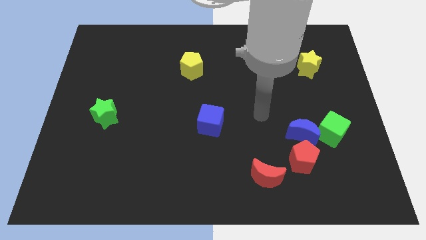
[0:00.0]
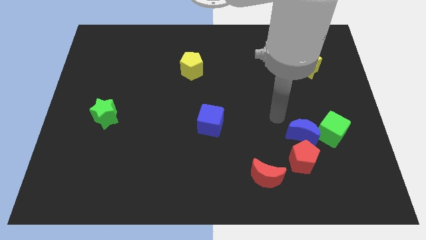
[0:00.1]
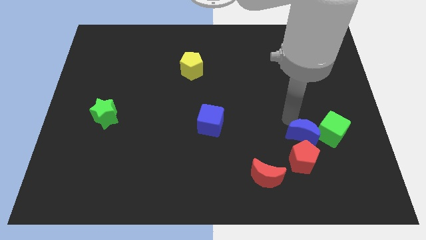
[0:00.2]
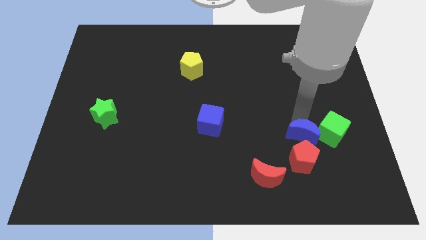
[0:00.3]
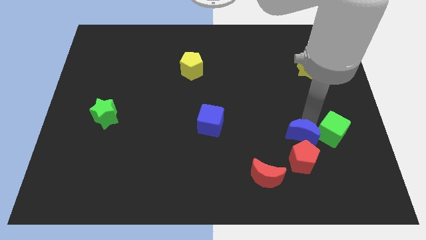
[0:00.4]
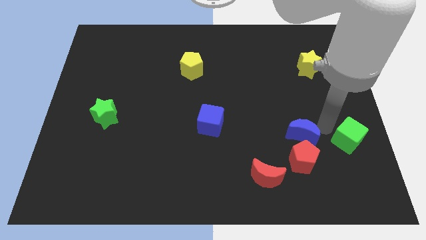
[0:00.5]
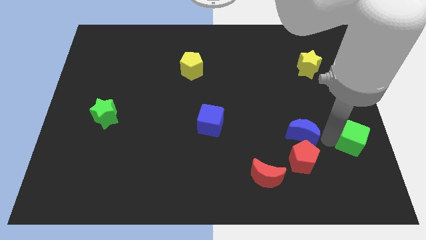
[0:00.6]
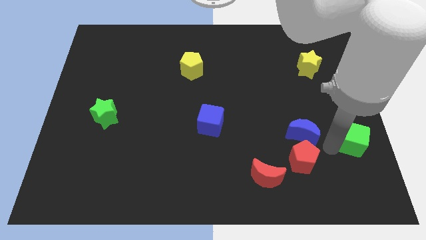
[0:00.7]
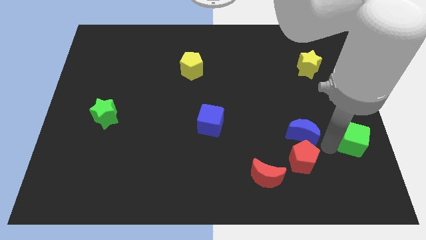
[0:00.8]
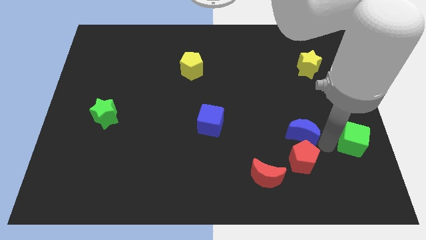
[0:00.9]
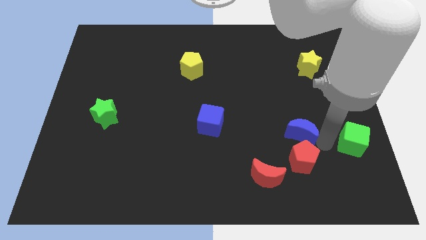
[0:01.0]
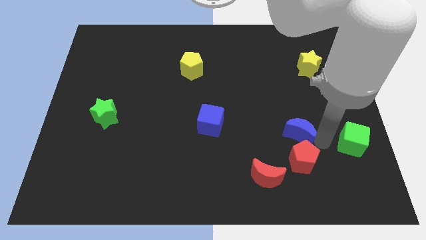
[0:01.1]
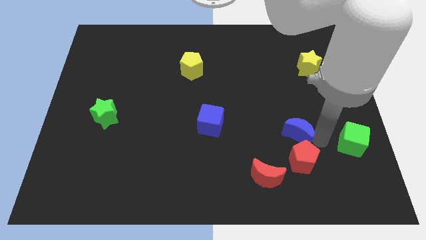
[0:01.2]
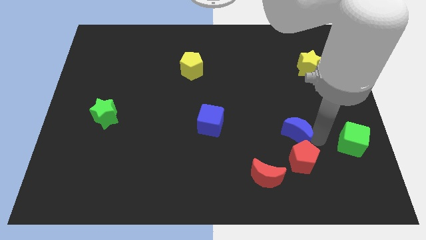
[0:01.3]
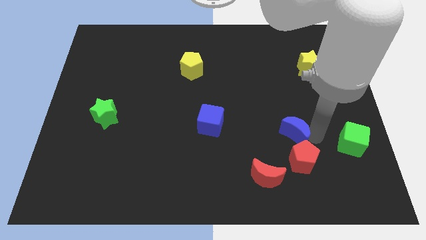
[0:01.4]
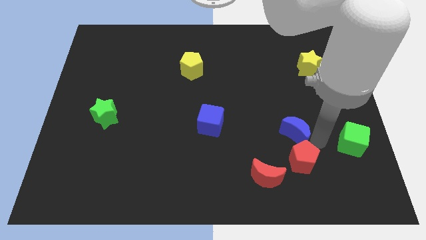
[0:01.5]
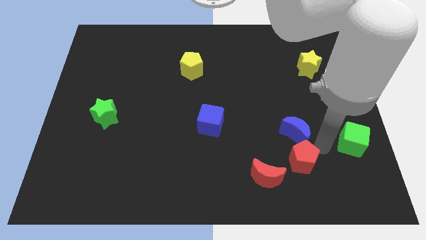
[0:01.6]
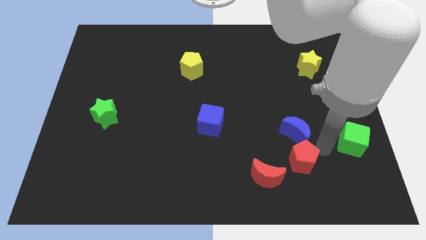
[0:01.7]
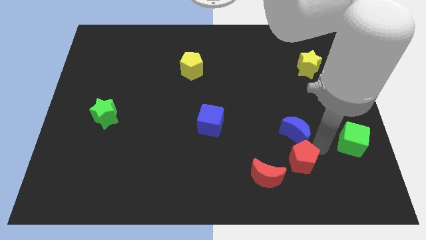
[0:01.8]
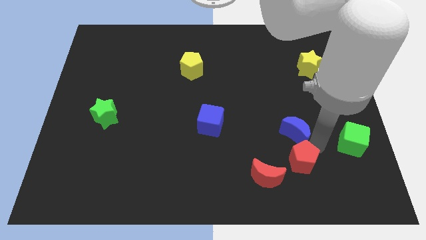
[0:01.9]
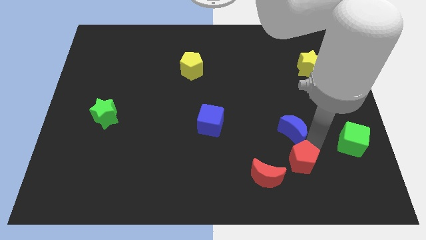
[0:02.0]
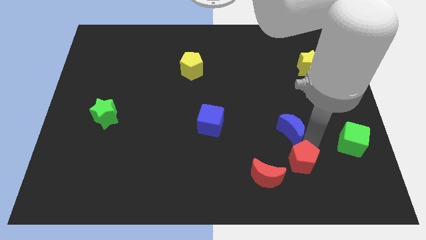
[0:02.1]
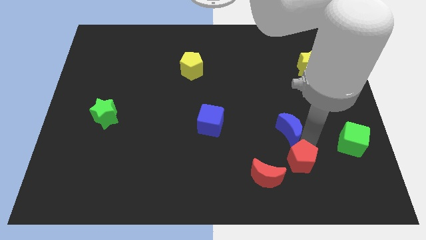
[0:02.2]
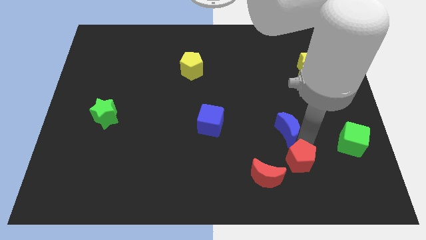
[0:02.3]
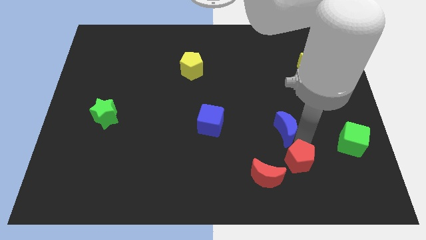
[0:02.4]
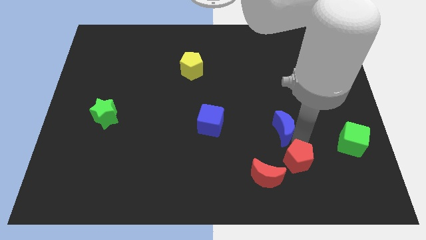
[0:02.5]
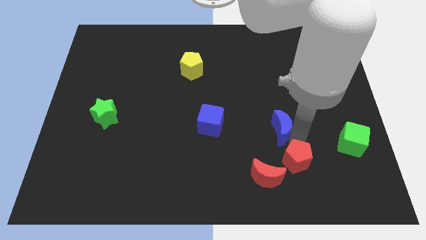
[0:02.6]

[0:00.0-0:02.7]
move the blue moon away from the green cube and red pentagon

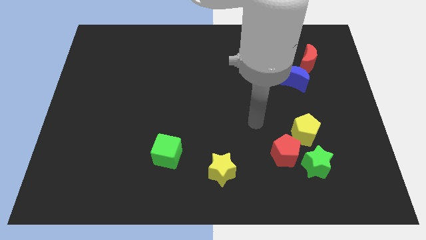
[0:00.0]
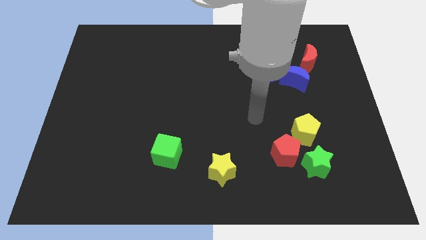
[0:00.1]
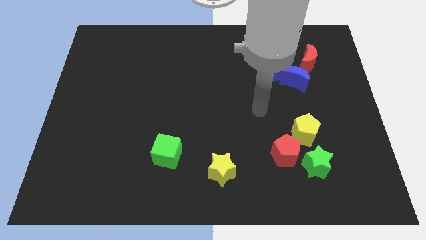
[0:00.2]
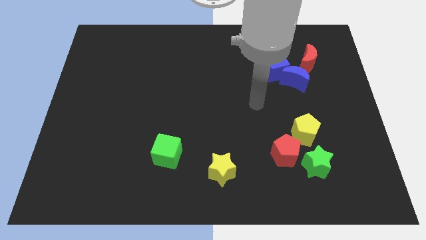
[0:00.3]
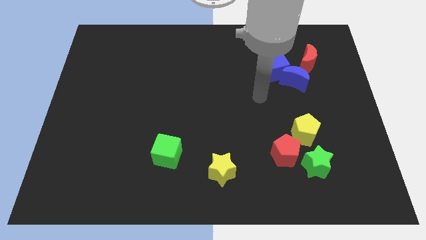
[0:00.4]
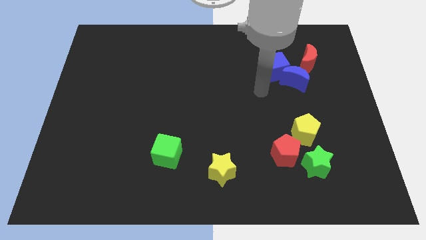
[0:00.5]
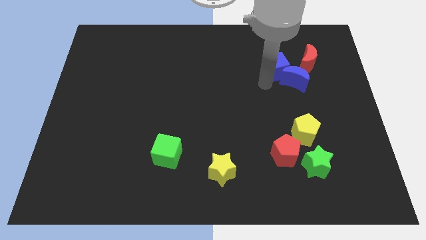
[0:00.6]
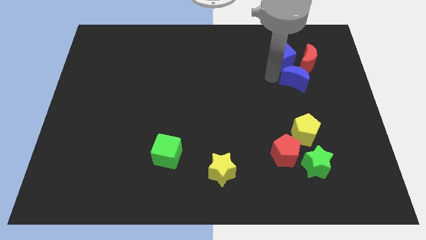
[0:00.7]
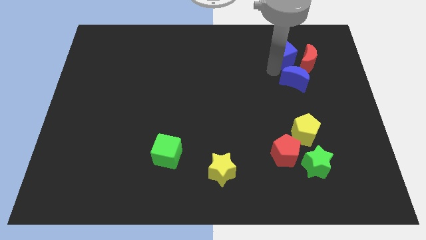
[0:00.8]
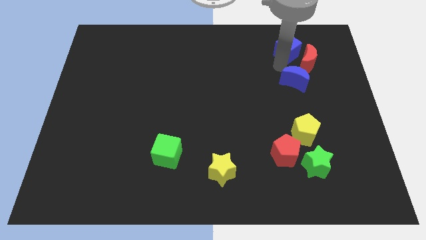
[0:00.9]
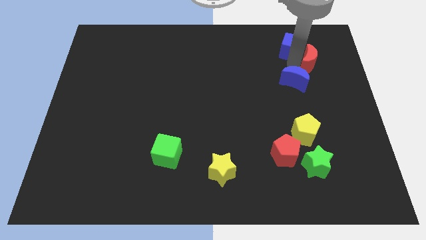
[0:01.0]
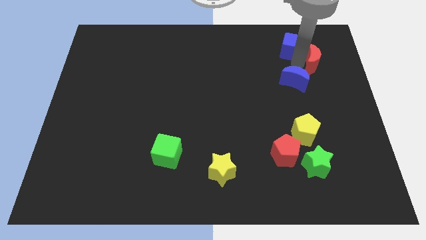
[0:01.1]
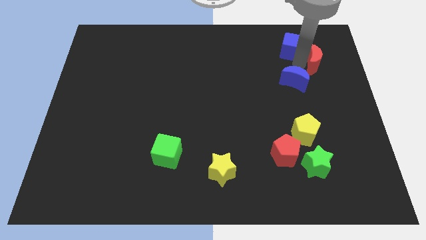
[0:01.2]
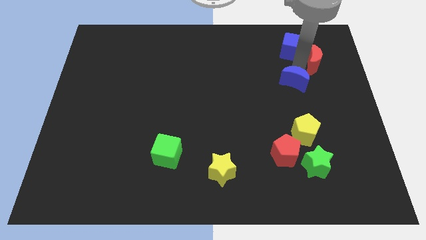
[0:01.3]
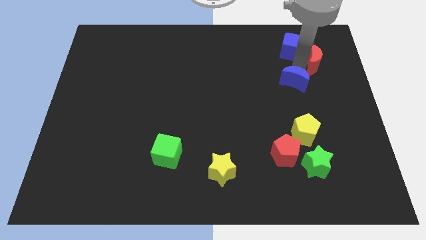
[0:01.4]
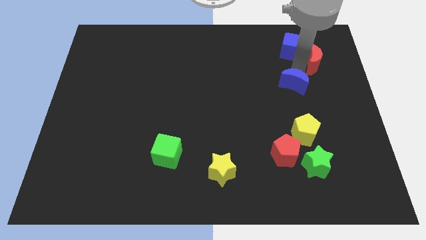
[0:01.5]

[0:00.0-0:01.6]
separate the blue moon from the blue cube and red moon

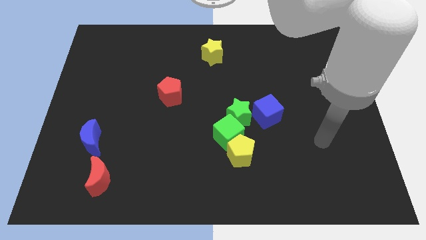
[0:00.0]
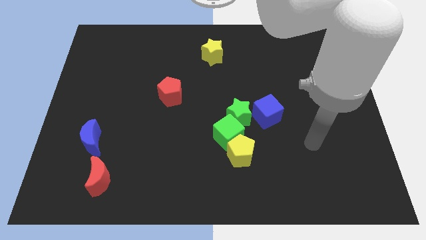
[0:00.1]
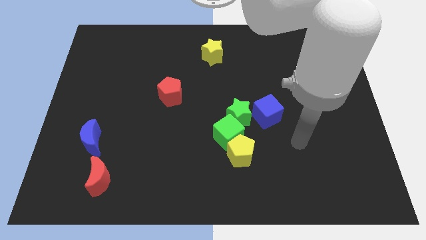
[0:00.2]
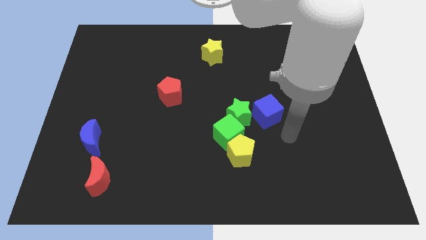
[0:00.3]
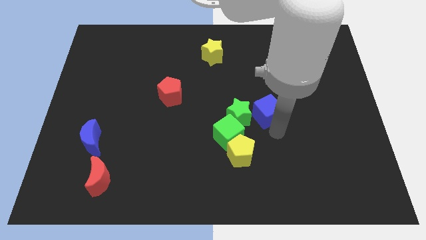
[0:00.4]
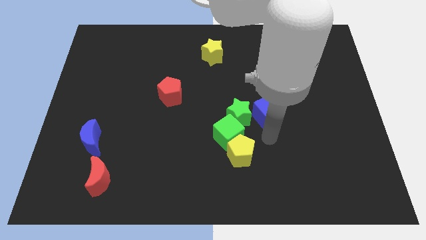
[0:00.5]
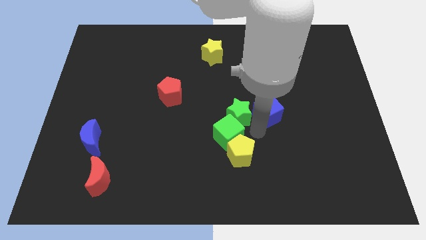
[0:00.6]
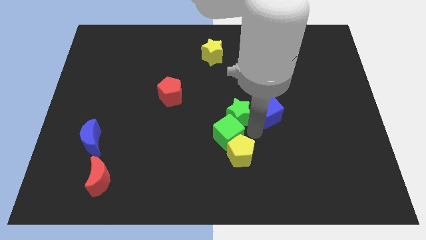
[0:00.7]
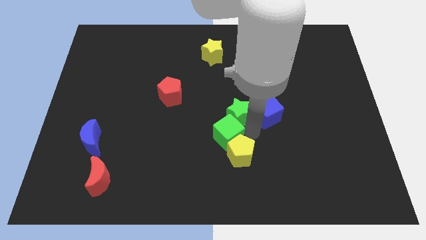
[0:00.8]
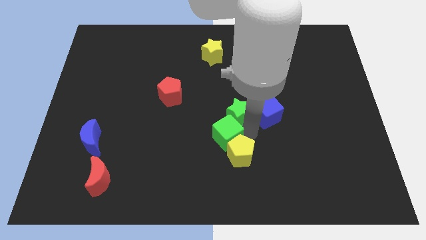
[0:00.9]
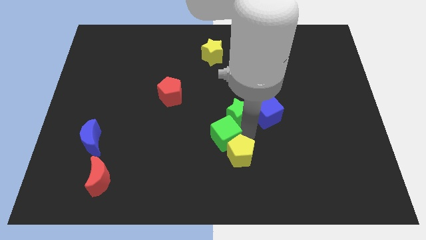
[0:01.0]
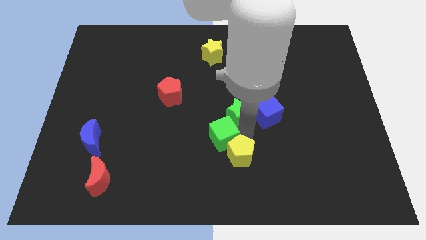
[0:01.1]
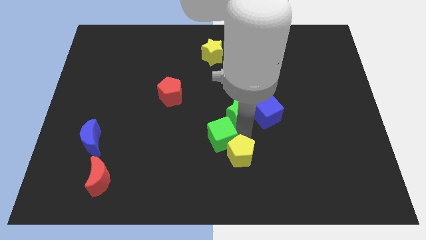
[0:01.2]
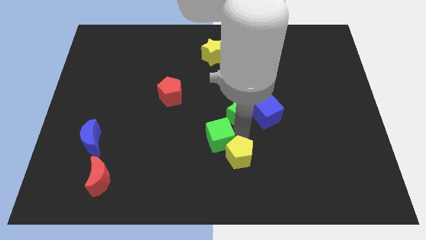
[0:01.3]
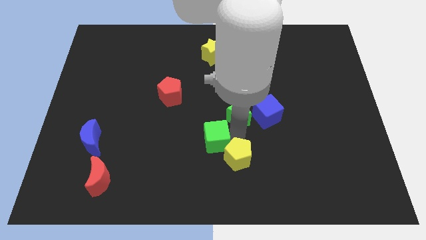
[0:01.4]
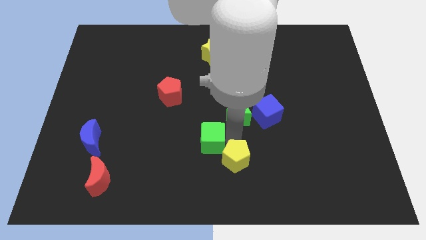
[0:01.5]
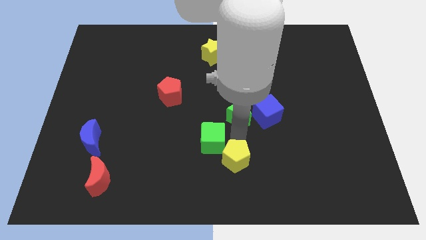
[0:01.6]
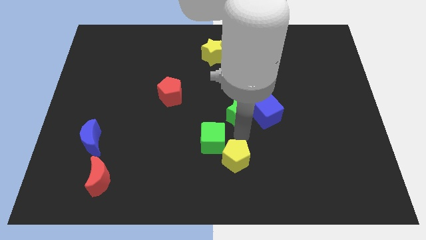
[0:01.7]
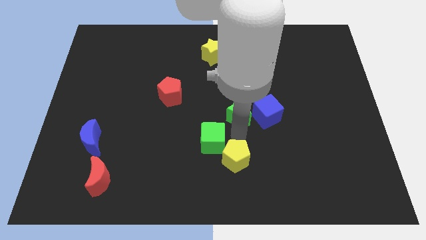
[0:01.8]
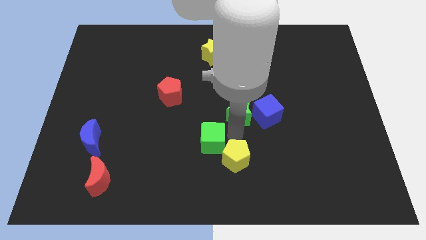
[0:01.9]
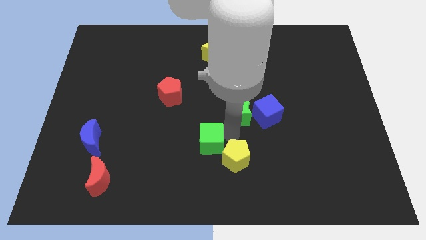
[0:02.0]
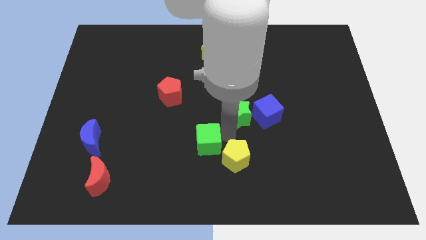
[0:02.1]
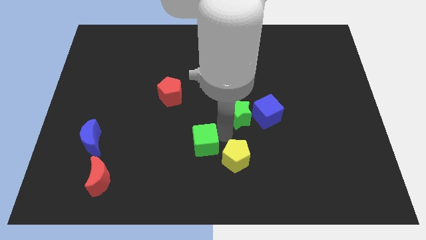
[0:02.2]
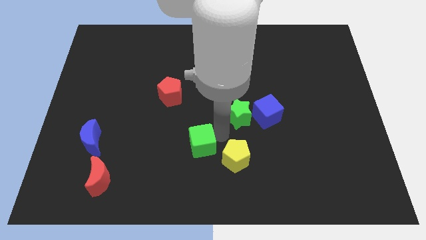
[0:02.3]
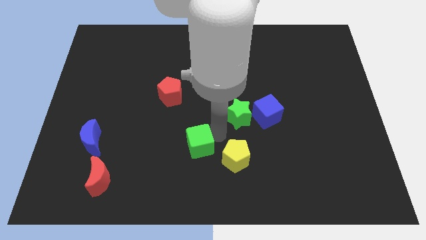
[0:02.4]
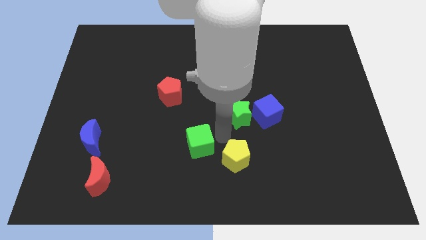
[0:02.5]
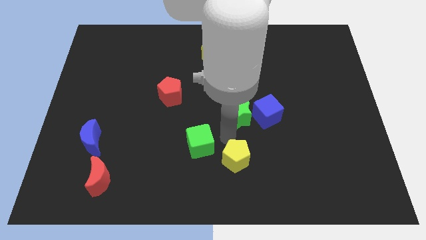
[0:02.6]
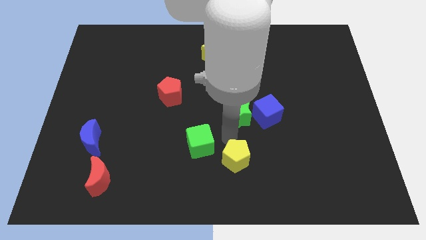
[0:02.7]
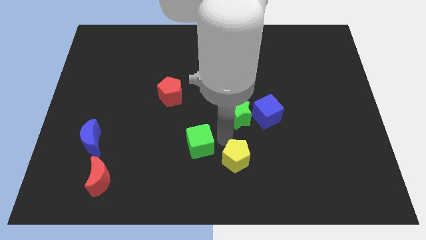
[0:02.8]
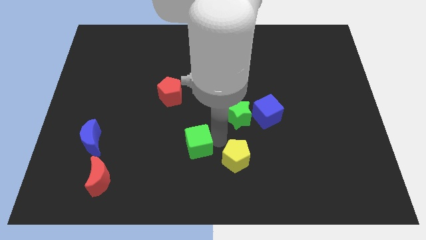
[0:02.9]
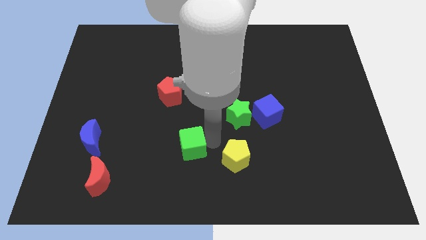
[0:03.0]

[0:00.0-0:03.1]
pull the green cube apart from the yellow pentagon and green star

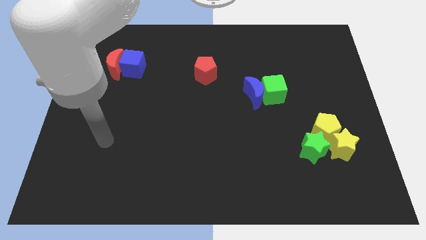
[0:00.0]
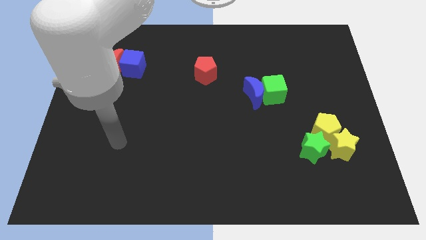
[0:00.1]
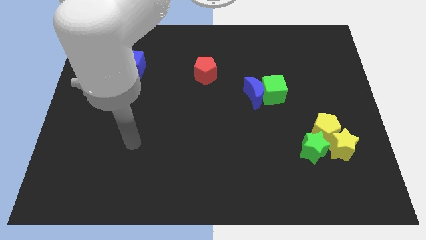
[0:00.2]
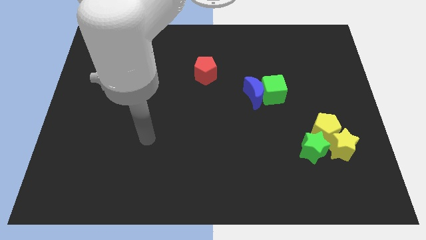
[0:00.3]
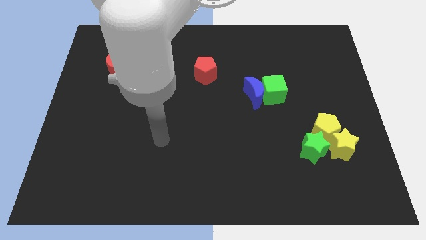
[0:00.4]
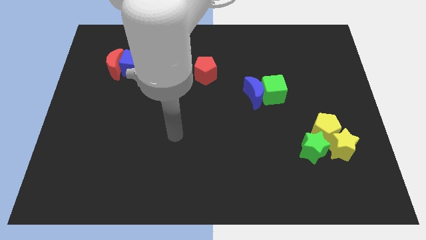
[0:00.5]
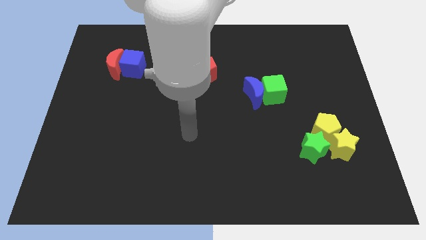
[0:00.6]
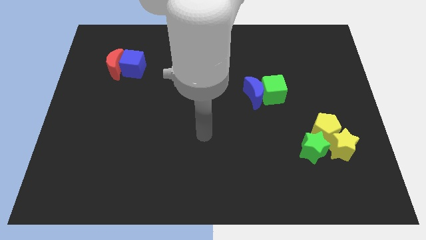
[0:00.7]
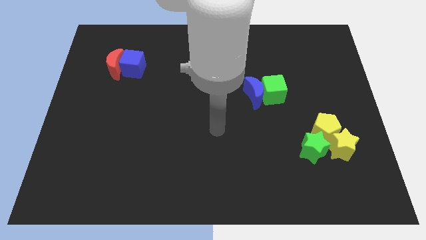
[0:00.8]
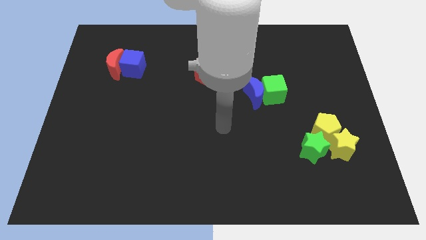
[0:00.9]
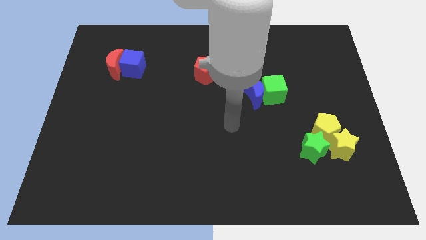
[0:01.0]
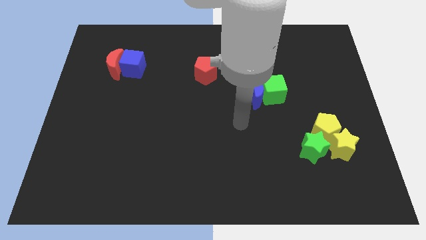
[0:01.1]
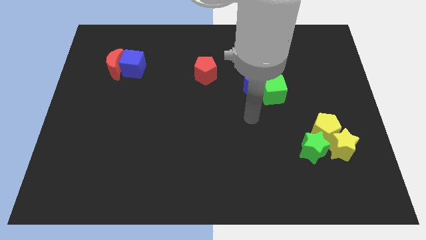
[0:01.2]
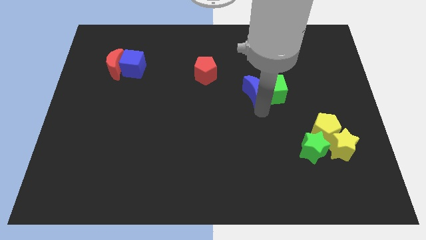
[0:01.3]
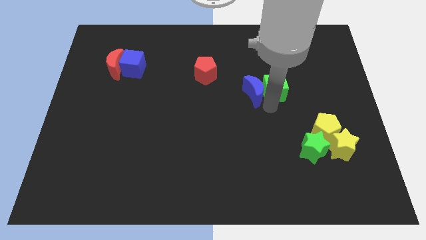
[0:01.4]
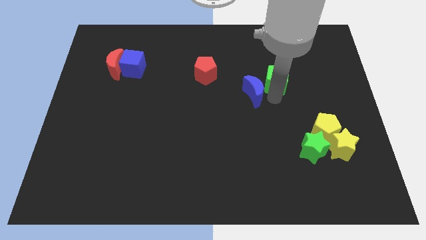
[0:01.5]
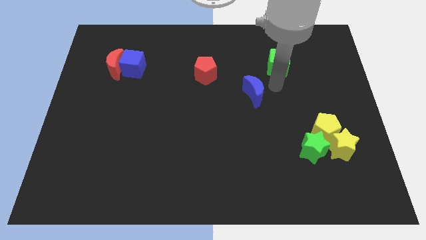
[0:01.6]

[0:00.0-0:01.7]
pull the blue moon apart from the green cube

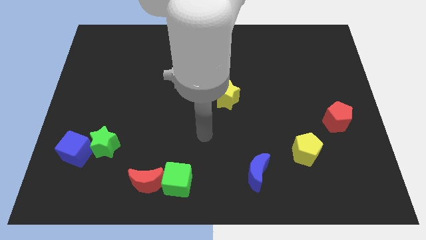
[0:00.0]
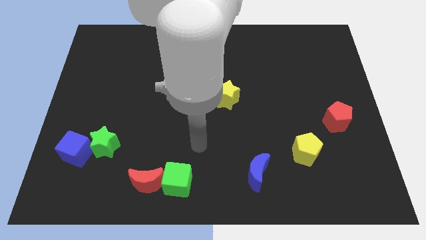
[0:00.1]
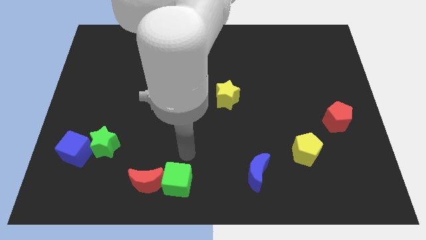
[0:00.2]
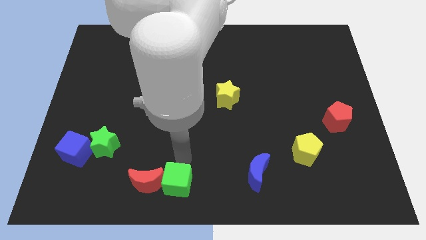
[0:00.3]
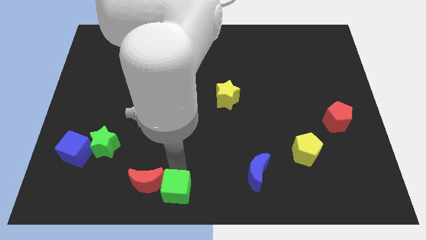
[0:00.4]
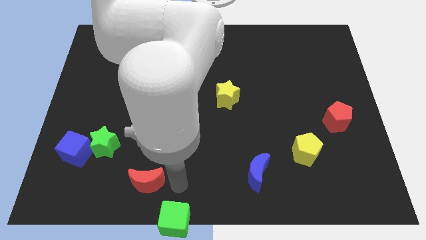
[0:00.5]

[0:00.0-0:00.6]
pull the red moon apart from the green cube
